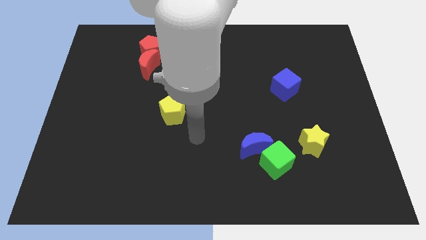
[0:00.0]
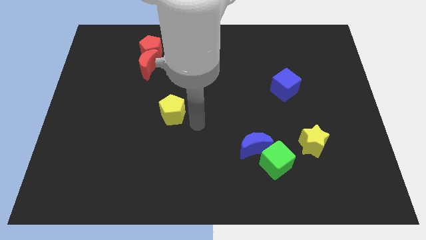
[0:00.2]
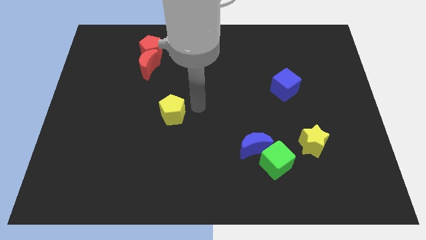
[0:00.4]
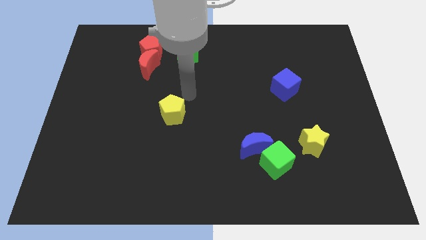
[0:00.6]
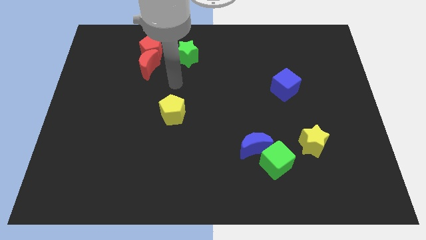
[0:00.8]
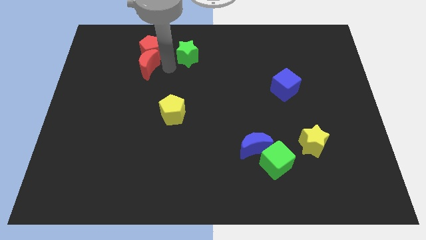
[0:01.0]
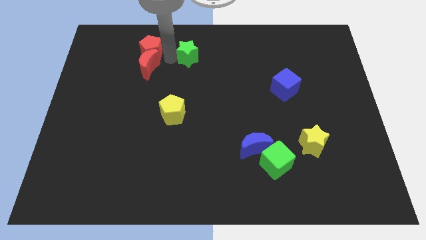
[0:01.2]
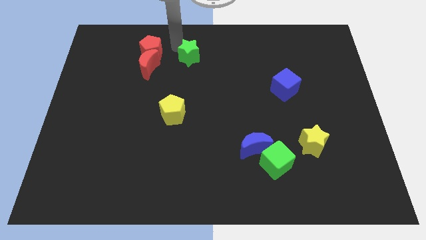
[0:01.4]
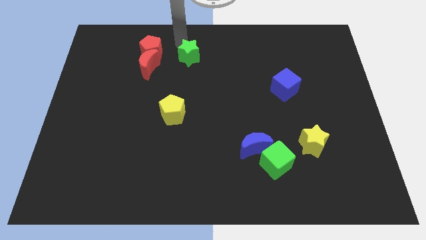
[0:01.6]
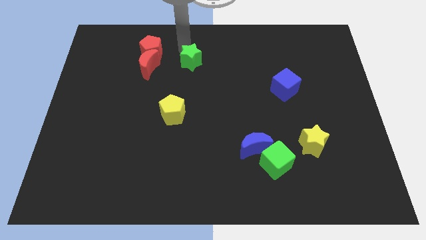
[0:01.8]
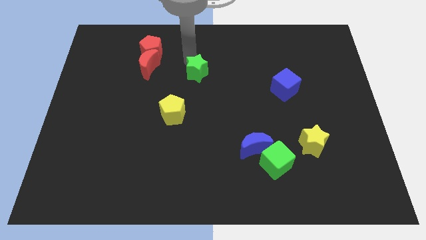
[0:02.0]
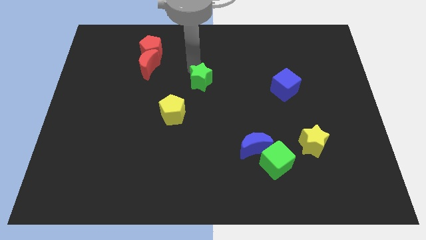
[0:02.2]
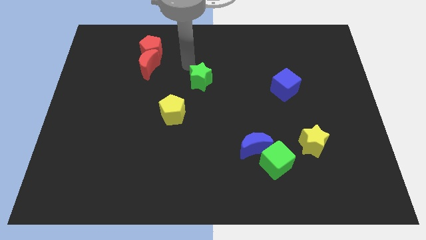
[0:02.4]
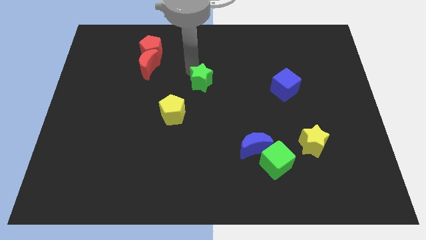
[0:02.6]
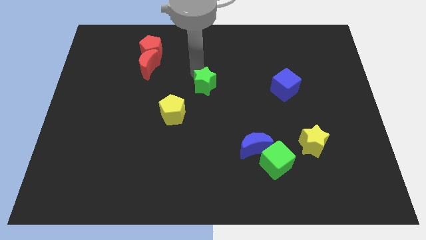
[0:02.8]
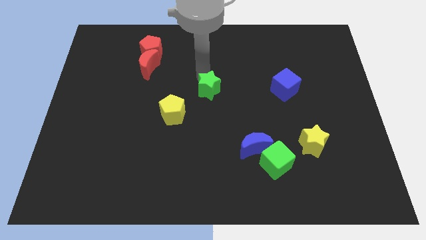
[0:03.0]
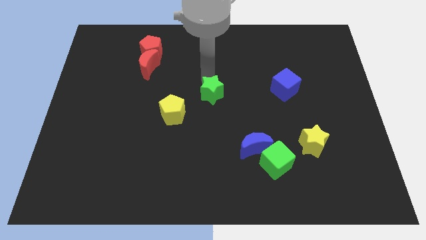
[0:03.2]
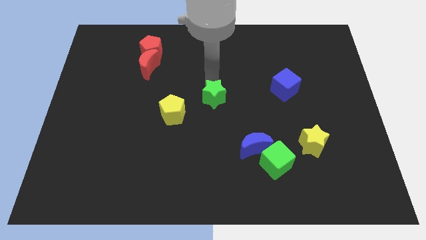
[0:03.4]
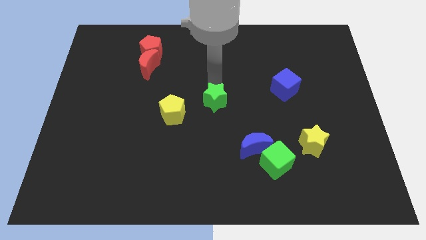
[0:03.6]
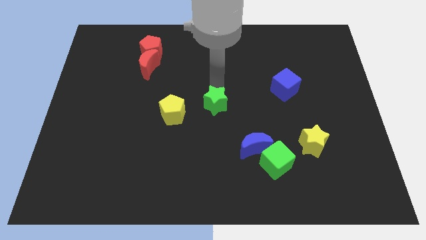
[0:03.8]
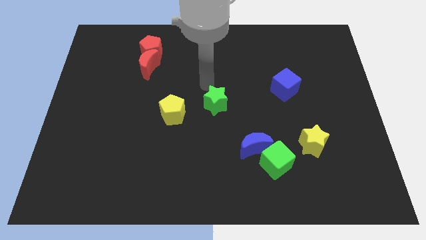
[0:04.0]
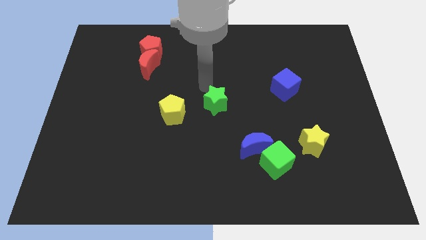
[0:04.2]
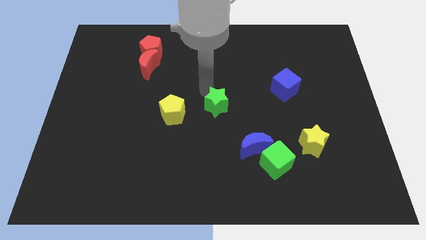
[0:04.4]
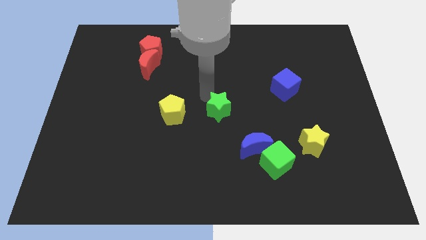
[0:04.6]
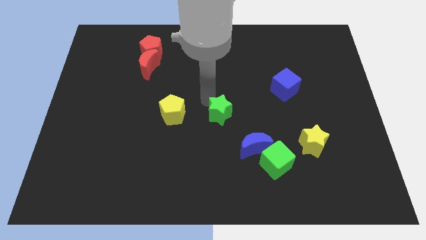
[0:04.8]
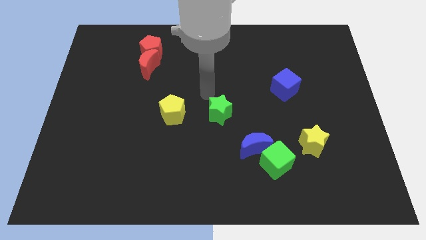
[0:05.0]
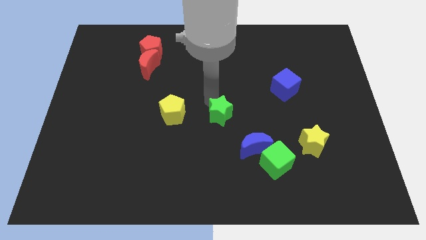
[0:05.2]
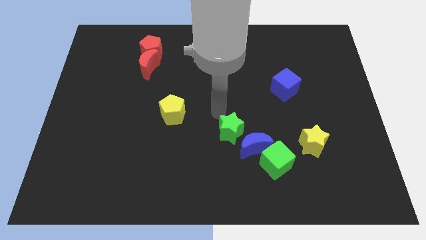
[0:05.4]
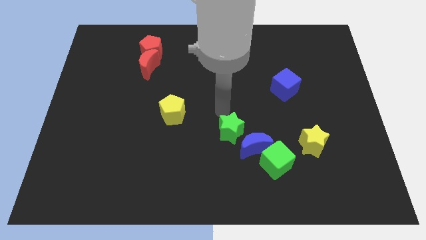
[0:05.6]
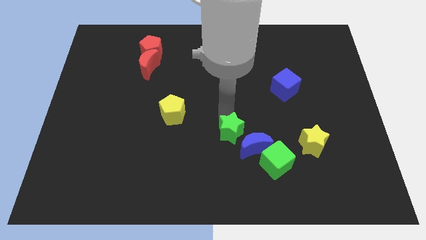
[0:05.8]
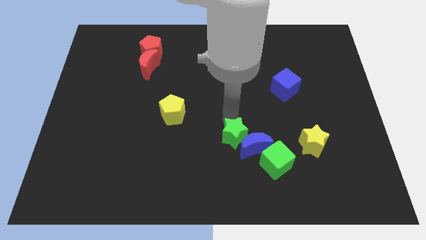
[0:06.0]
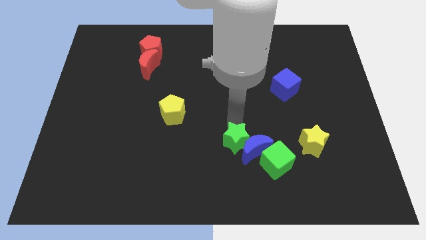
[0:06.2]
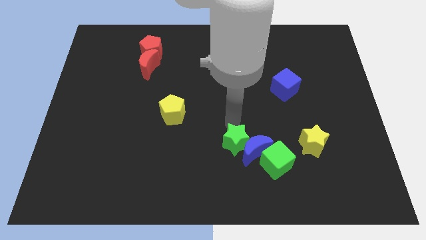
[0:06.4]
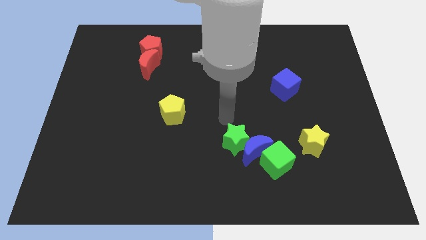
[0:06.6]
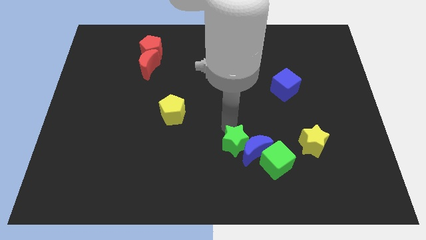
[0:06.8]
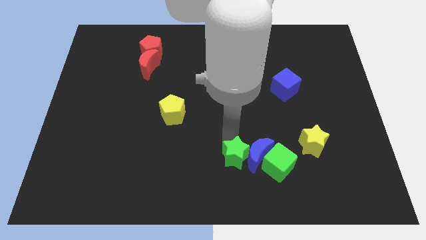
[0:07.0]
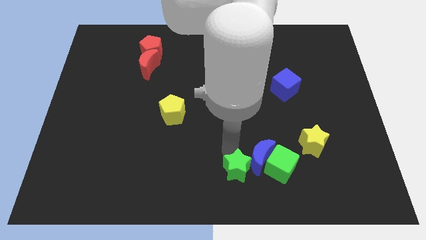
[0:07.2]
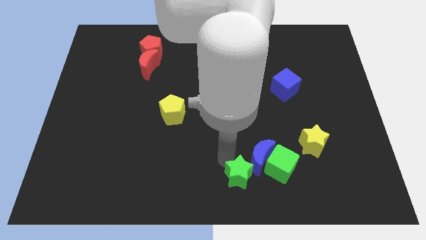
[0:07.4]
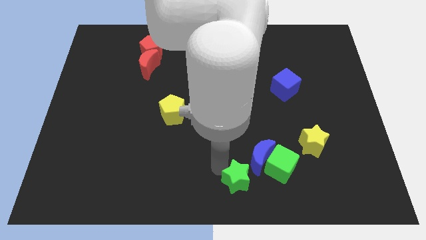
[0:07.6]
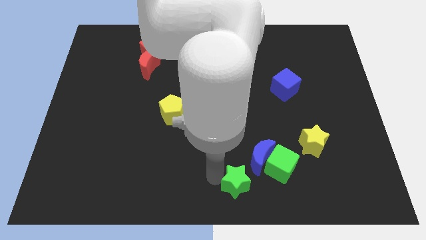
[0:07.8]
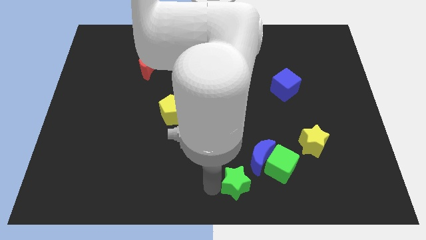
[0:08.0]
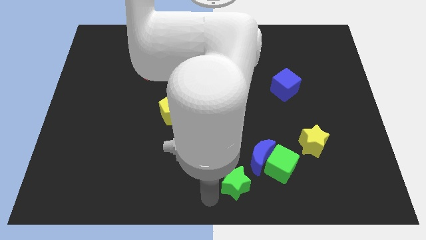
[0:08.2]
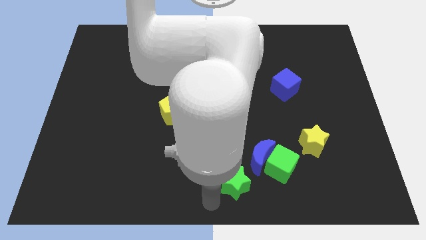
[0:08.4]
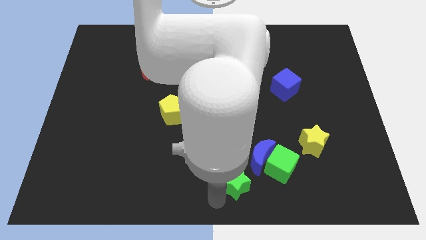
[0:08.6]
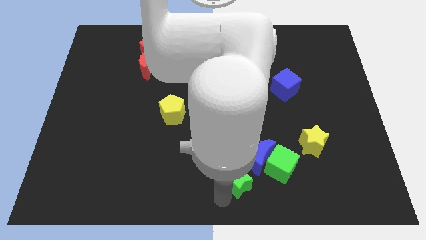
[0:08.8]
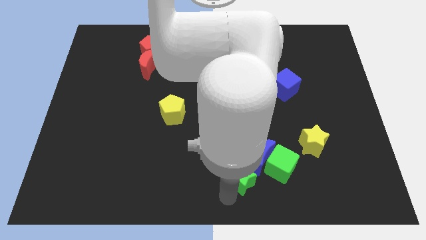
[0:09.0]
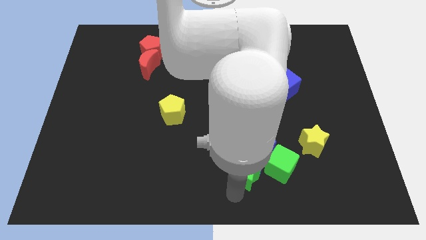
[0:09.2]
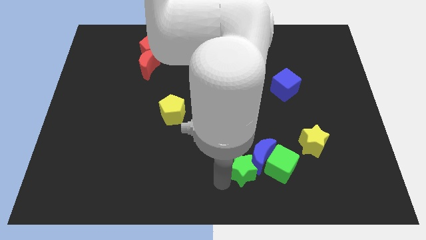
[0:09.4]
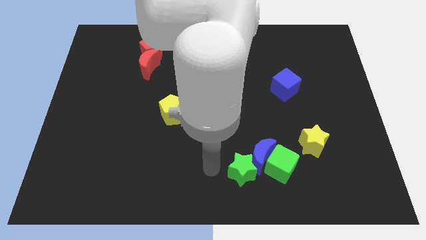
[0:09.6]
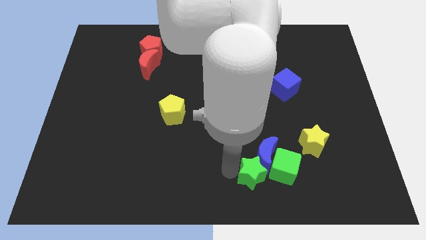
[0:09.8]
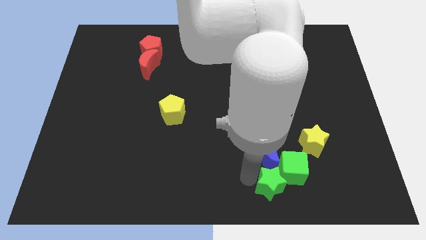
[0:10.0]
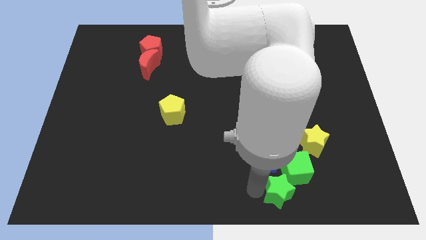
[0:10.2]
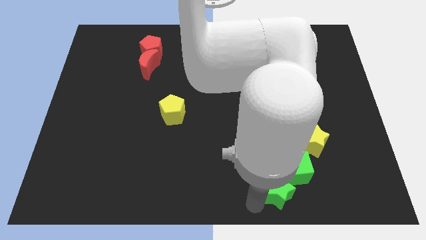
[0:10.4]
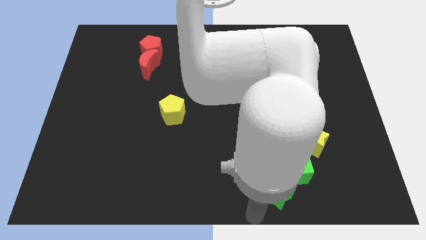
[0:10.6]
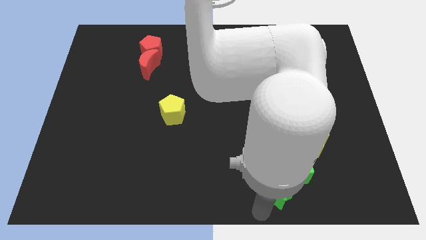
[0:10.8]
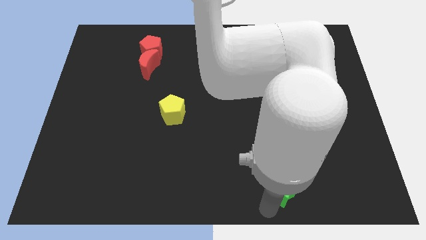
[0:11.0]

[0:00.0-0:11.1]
slide the green star to the bottom right side of the blue moon

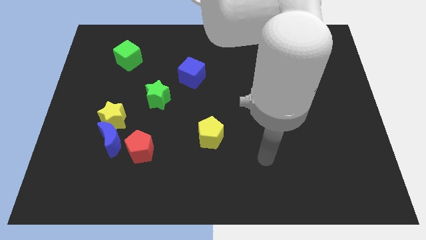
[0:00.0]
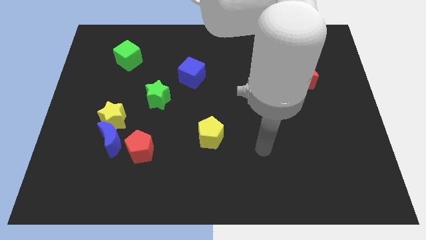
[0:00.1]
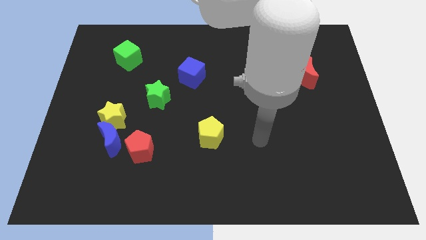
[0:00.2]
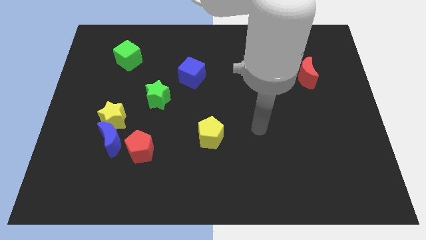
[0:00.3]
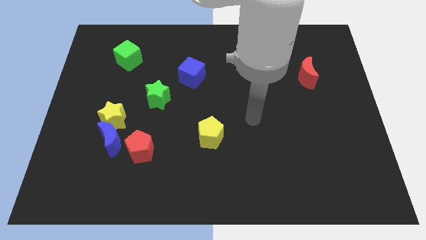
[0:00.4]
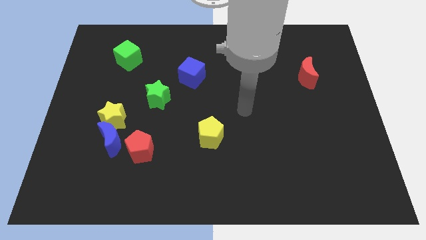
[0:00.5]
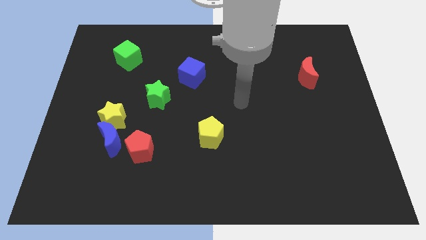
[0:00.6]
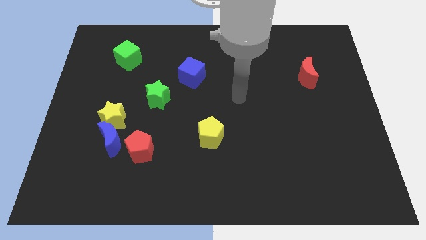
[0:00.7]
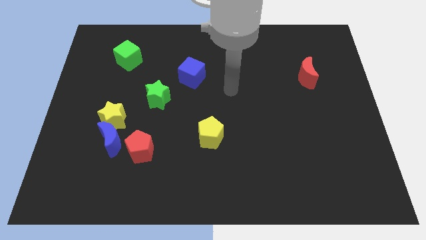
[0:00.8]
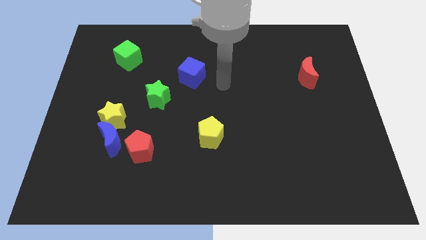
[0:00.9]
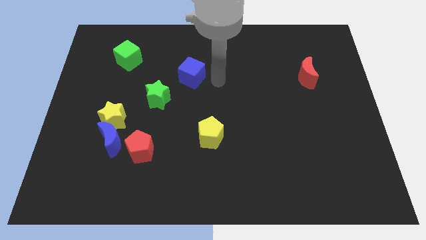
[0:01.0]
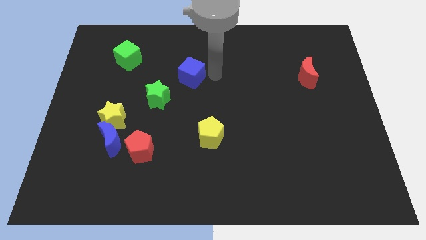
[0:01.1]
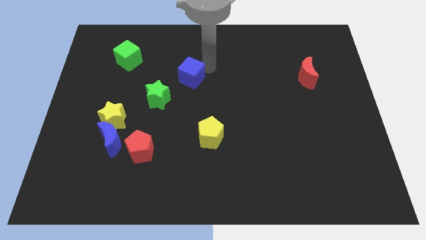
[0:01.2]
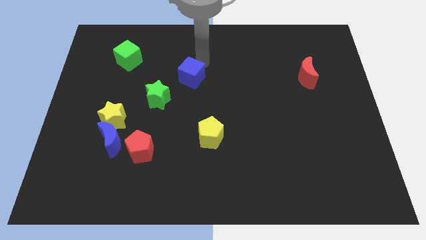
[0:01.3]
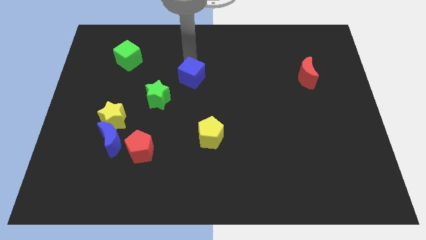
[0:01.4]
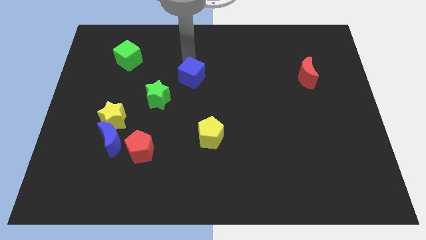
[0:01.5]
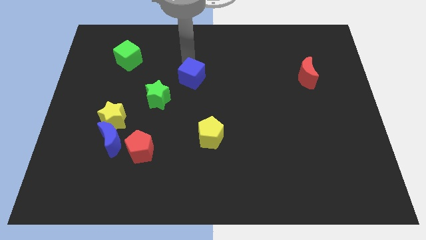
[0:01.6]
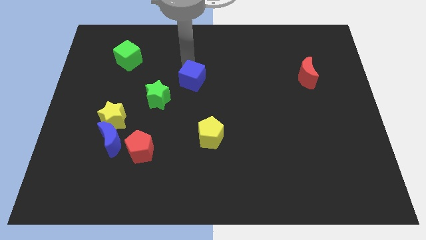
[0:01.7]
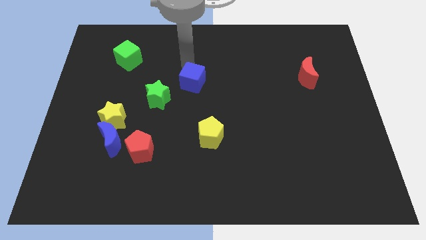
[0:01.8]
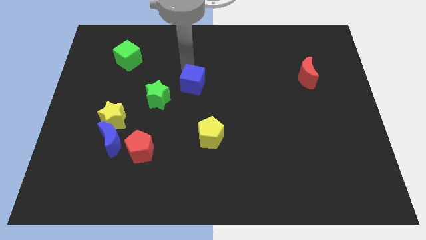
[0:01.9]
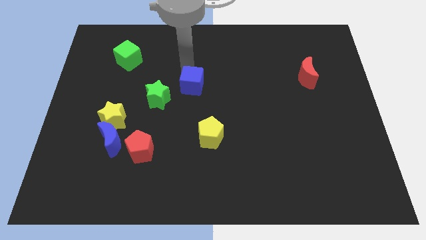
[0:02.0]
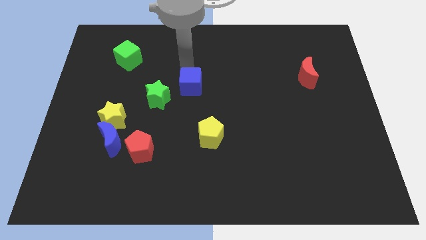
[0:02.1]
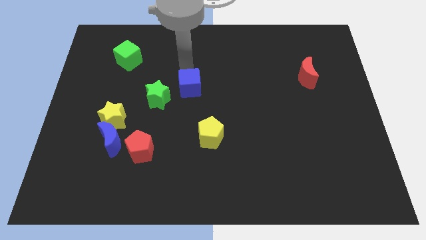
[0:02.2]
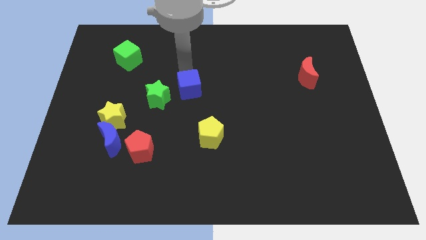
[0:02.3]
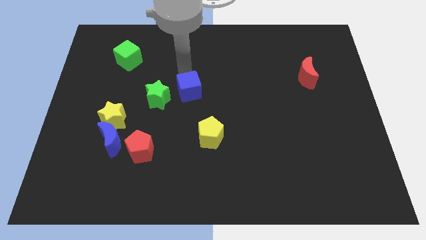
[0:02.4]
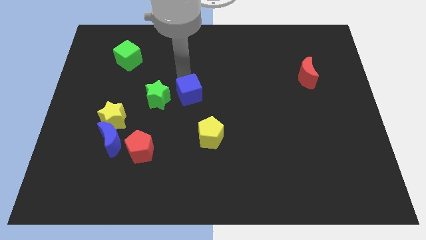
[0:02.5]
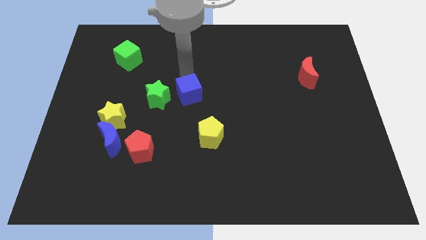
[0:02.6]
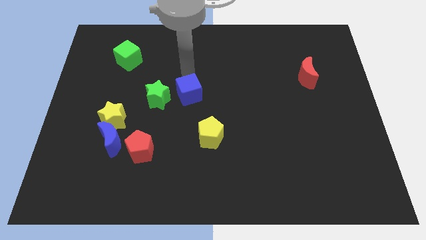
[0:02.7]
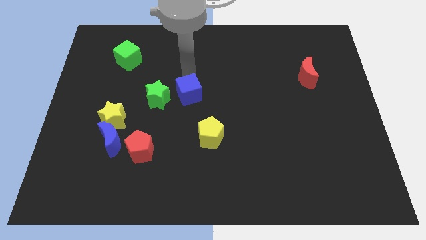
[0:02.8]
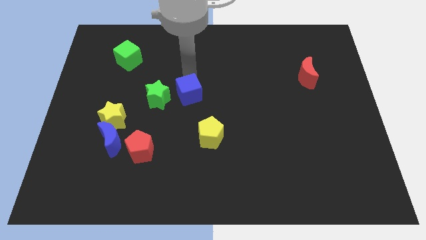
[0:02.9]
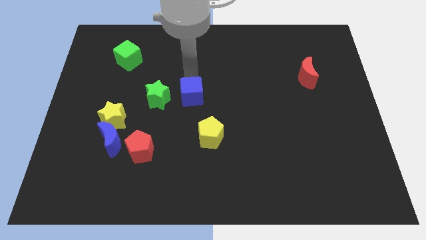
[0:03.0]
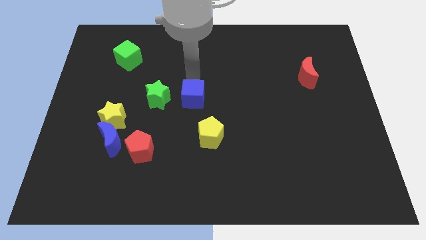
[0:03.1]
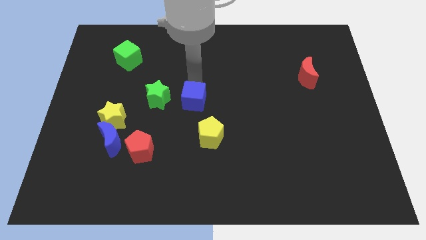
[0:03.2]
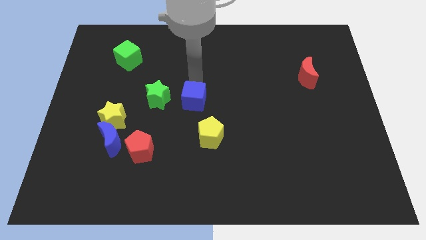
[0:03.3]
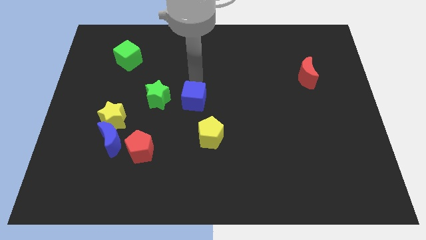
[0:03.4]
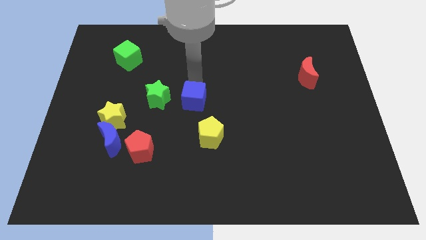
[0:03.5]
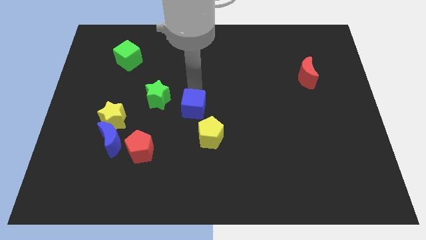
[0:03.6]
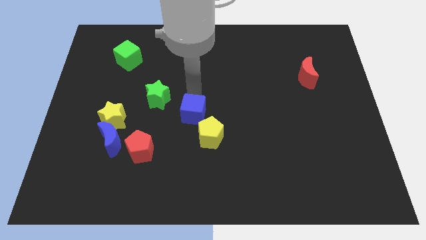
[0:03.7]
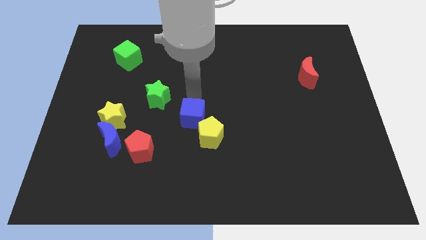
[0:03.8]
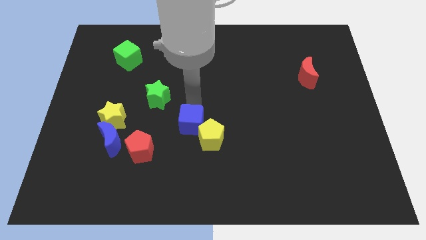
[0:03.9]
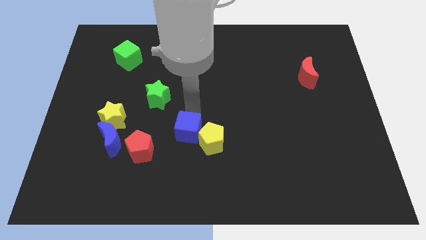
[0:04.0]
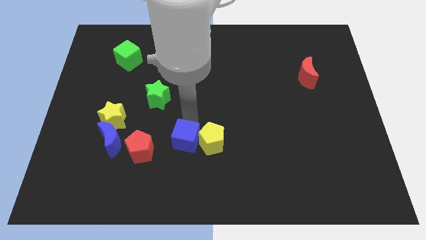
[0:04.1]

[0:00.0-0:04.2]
put the blue cube to the bottom left side of the yellow pentagon
